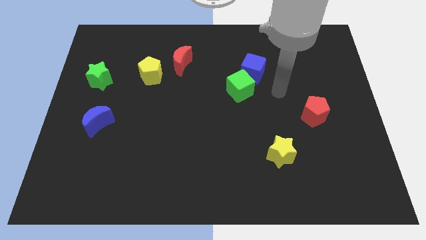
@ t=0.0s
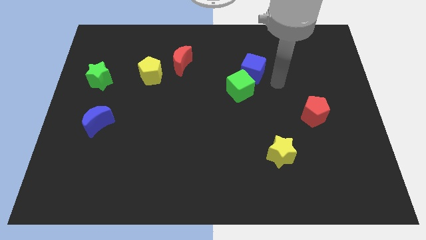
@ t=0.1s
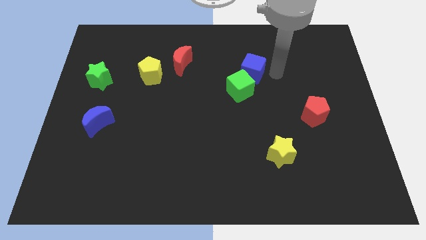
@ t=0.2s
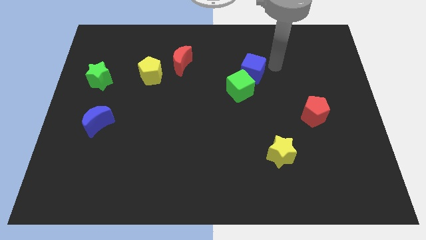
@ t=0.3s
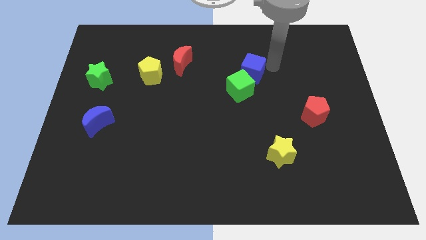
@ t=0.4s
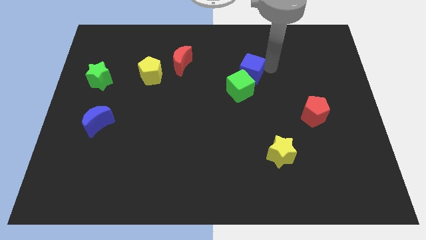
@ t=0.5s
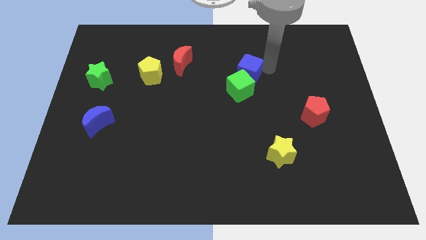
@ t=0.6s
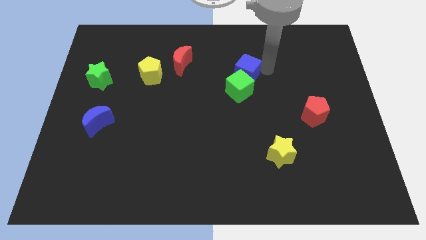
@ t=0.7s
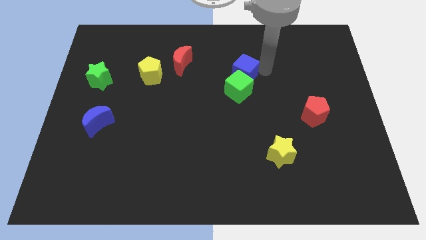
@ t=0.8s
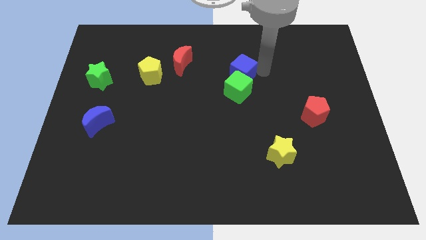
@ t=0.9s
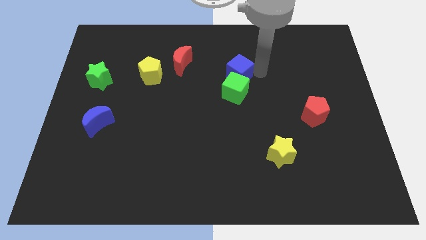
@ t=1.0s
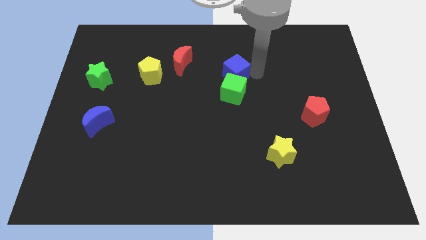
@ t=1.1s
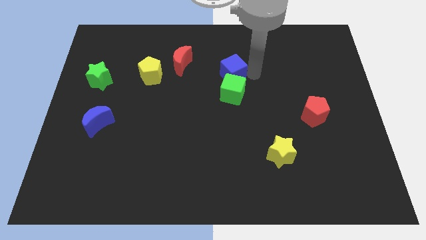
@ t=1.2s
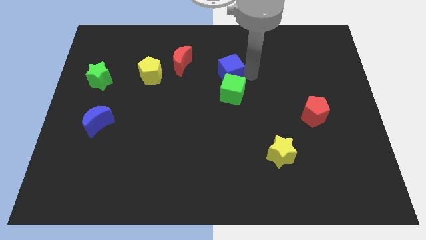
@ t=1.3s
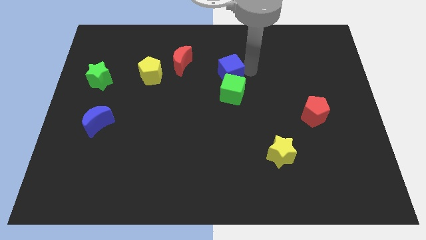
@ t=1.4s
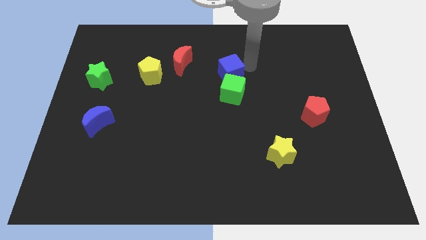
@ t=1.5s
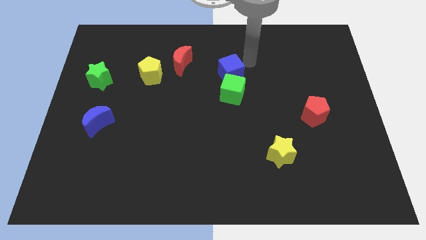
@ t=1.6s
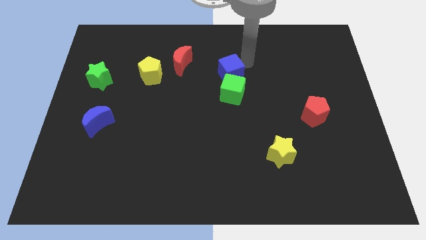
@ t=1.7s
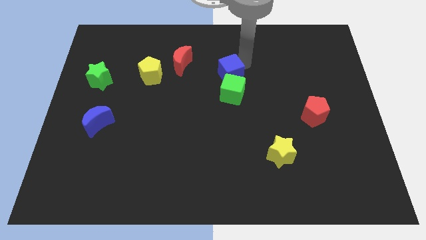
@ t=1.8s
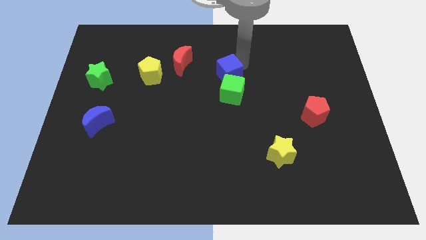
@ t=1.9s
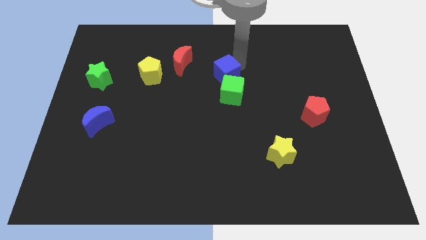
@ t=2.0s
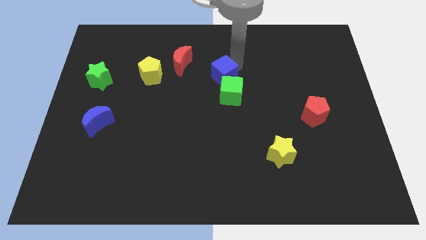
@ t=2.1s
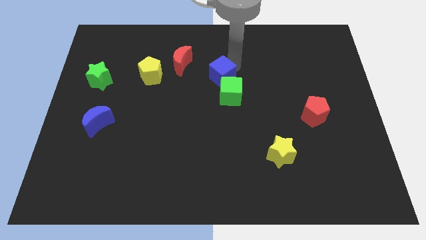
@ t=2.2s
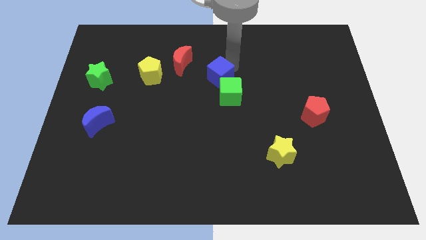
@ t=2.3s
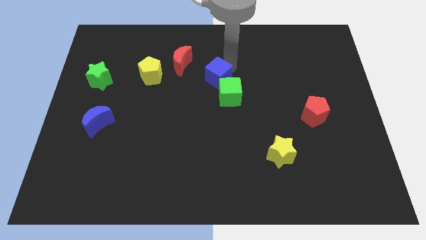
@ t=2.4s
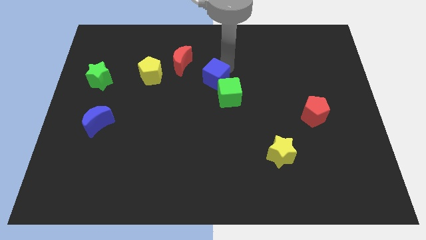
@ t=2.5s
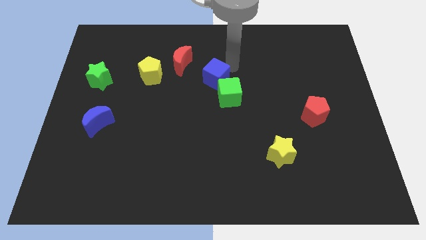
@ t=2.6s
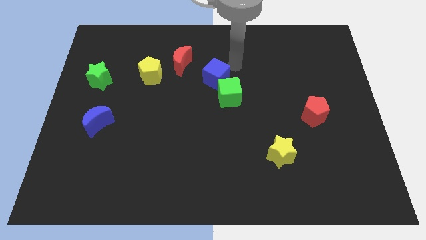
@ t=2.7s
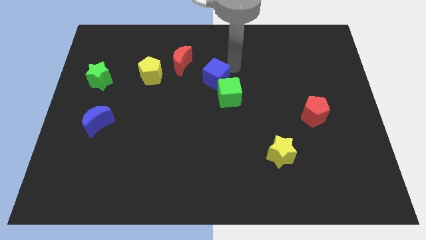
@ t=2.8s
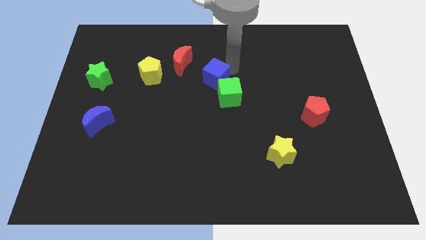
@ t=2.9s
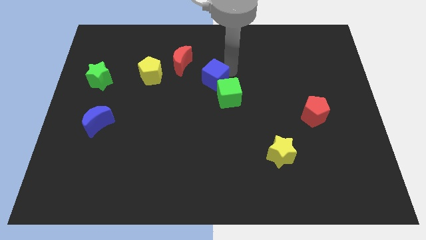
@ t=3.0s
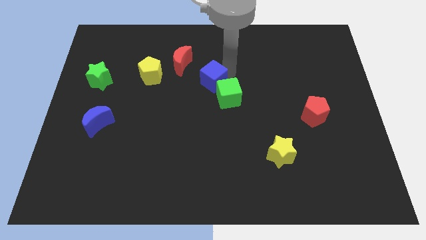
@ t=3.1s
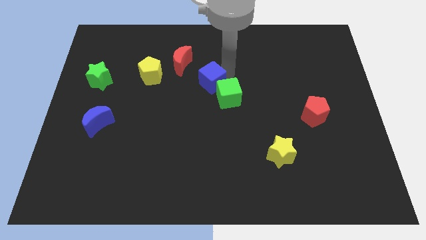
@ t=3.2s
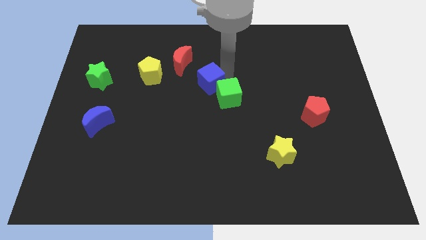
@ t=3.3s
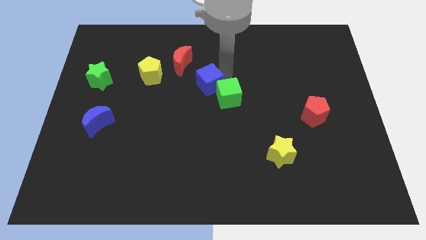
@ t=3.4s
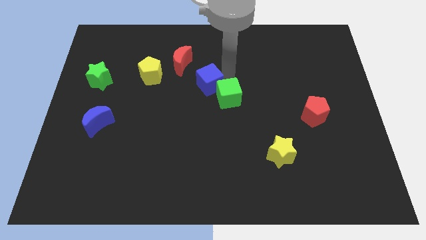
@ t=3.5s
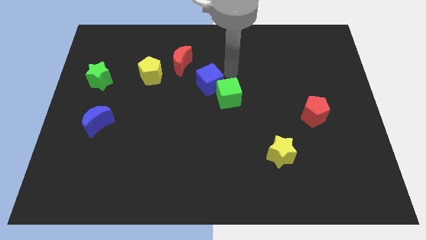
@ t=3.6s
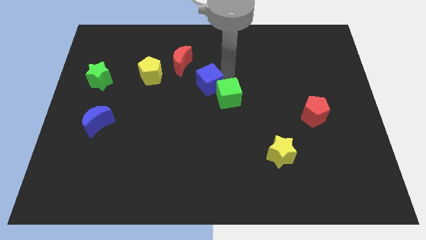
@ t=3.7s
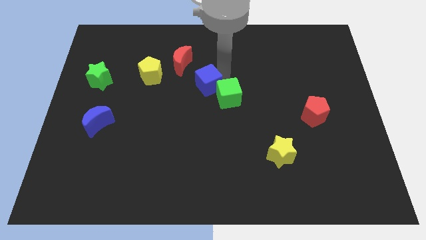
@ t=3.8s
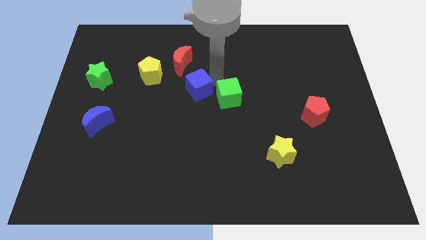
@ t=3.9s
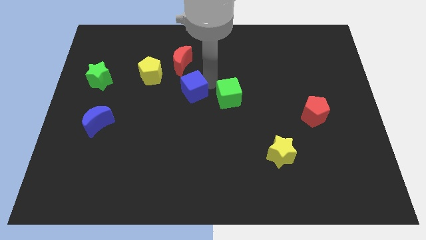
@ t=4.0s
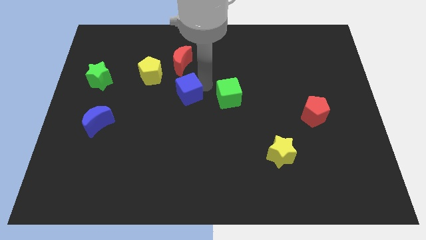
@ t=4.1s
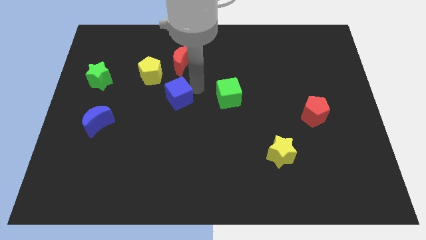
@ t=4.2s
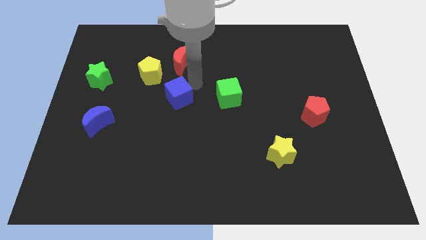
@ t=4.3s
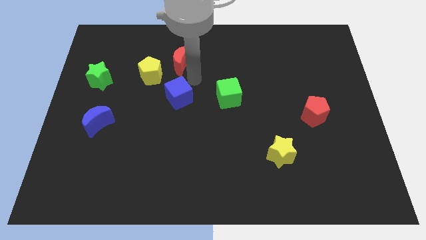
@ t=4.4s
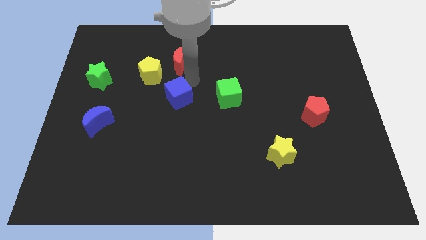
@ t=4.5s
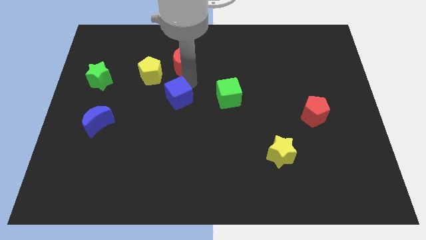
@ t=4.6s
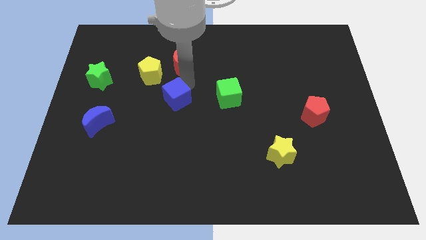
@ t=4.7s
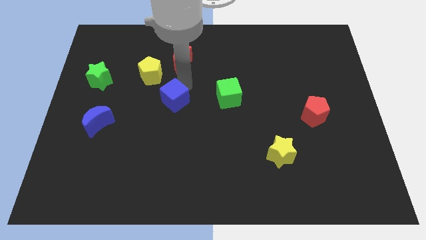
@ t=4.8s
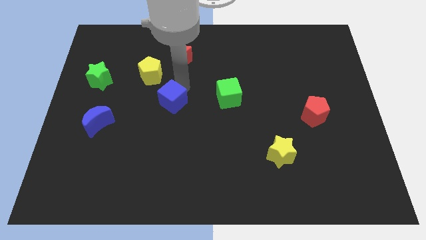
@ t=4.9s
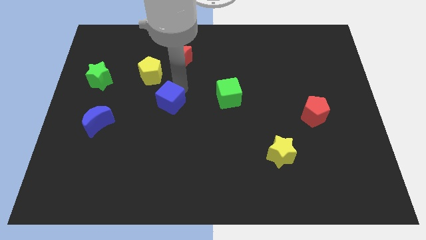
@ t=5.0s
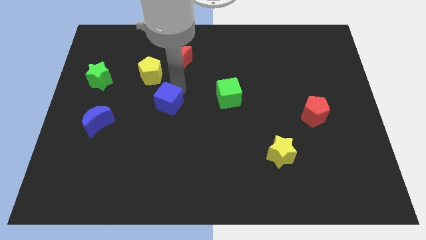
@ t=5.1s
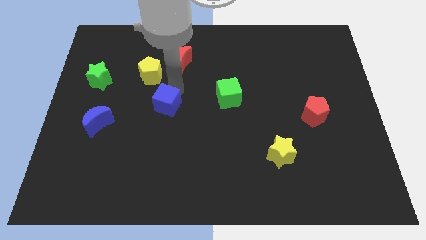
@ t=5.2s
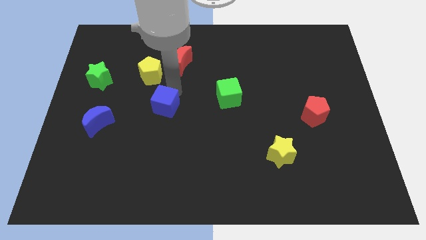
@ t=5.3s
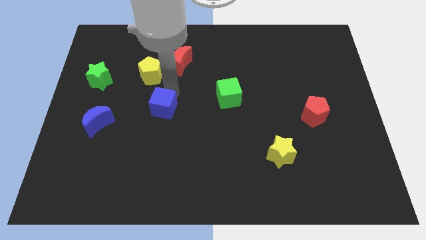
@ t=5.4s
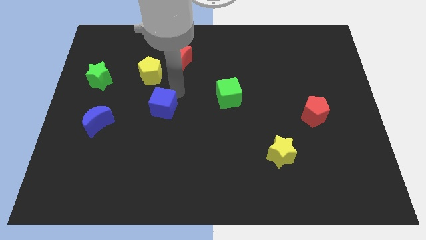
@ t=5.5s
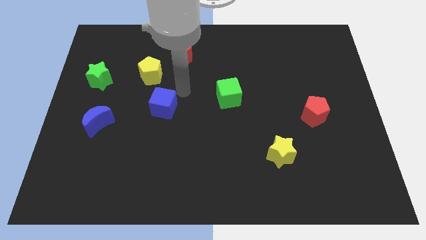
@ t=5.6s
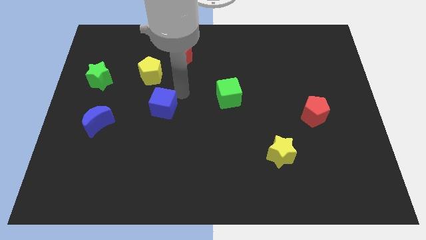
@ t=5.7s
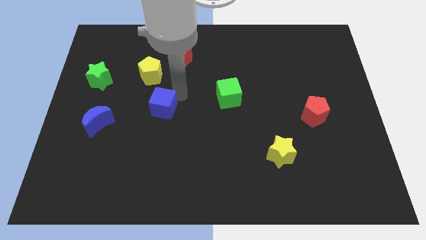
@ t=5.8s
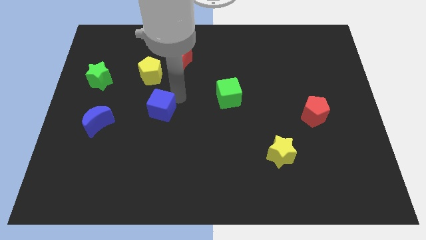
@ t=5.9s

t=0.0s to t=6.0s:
put the blue cube just right of the blue moon

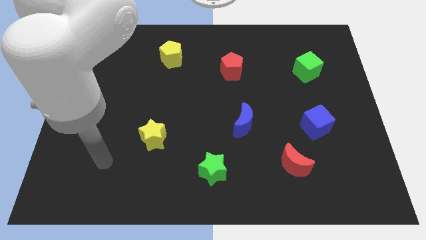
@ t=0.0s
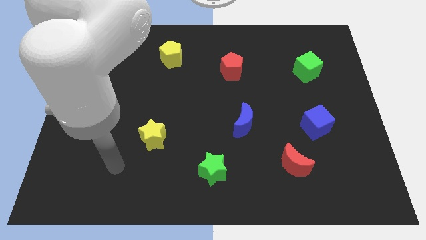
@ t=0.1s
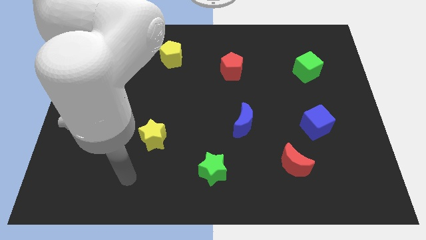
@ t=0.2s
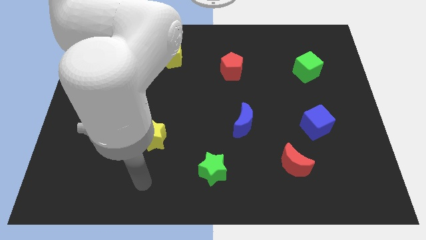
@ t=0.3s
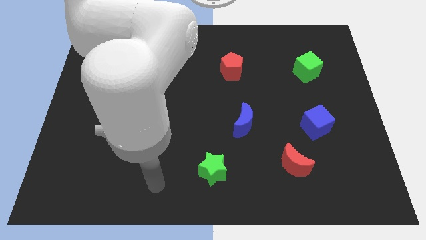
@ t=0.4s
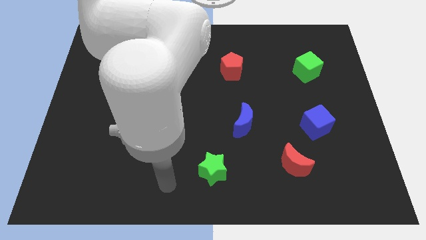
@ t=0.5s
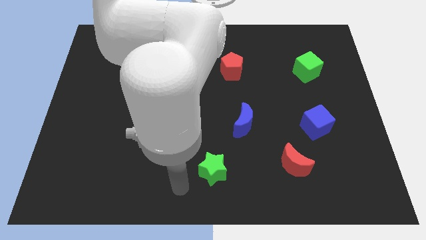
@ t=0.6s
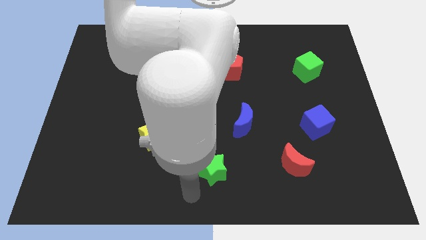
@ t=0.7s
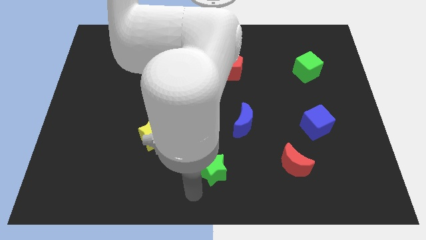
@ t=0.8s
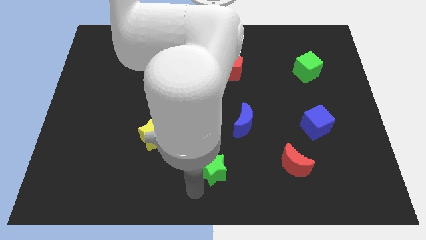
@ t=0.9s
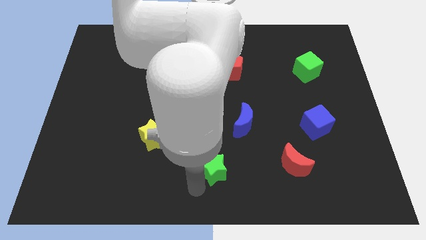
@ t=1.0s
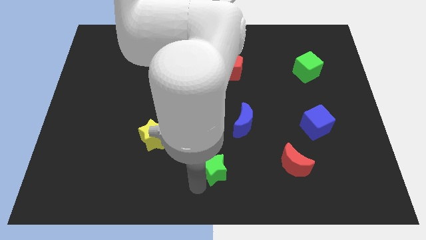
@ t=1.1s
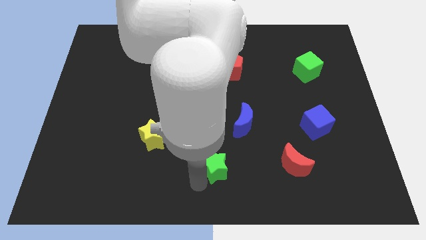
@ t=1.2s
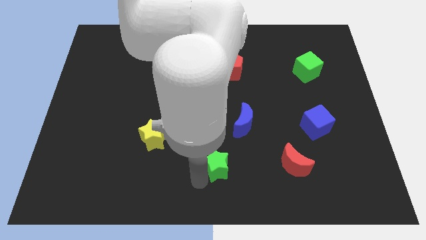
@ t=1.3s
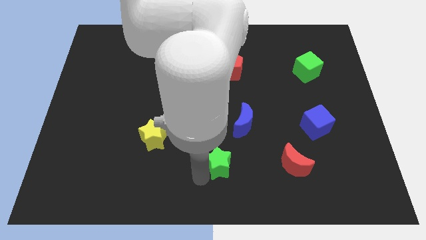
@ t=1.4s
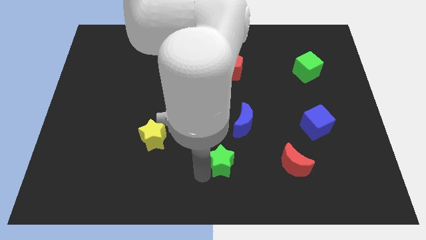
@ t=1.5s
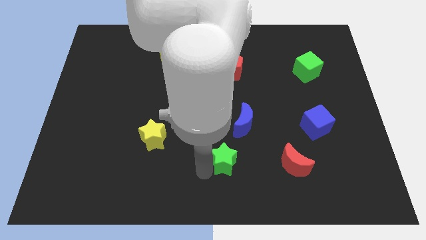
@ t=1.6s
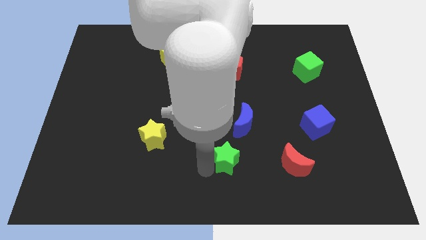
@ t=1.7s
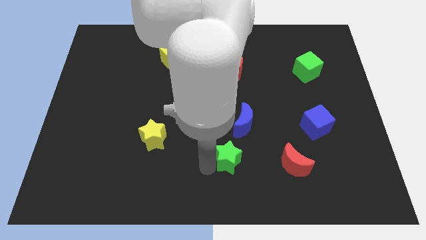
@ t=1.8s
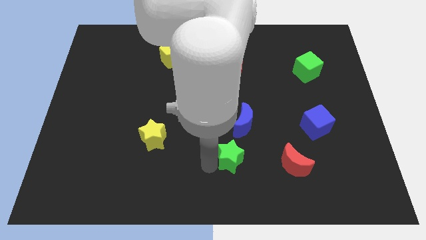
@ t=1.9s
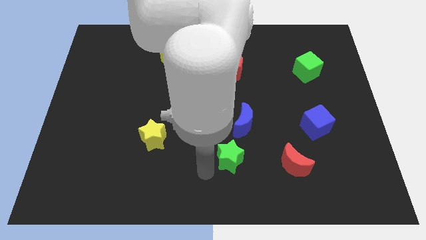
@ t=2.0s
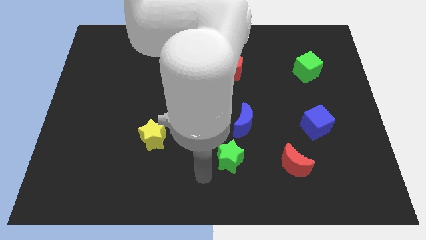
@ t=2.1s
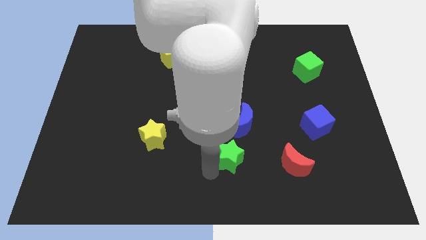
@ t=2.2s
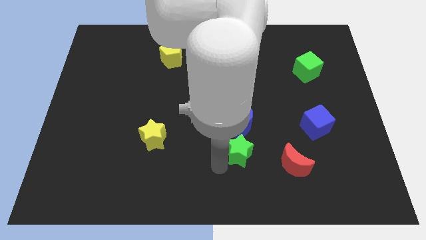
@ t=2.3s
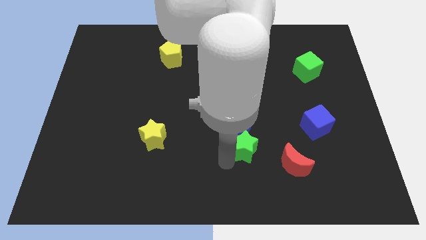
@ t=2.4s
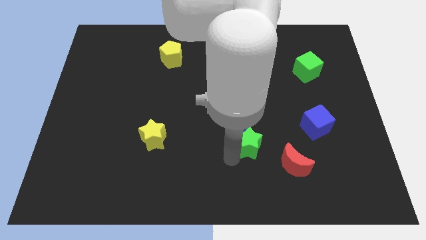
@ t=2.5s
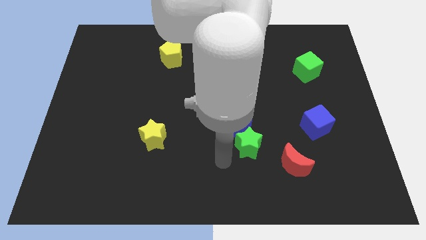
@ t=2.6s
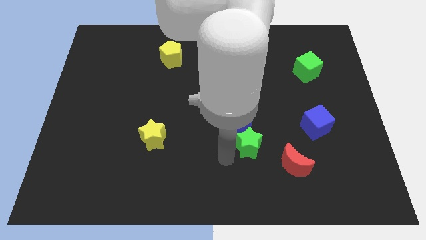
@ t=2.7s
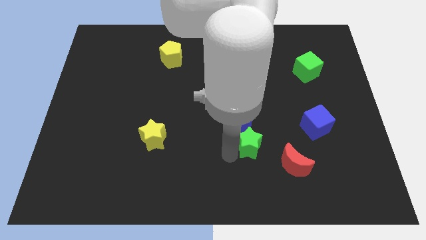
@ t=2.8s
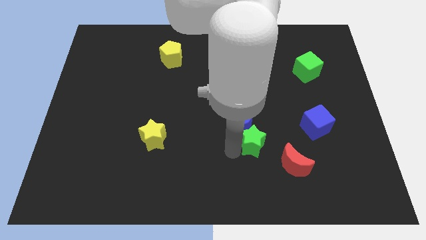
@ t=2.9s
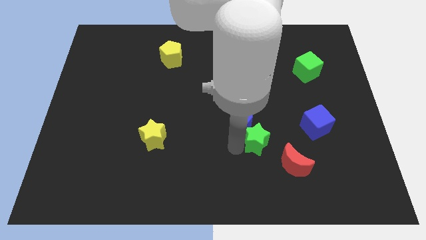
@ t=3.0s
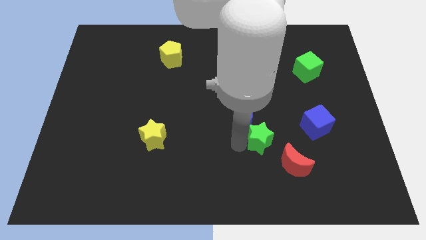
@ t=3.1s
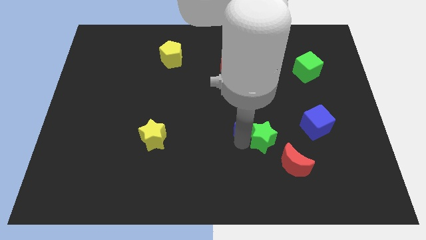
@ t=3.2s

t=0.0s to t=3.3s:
put the green star to the right side of the blue moon
